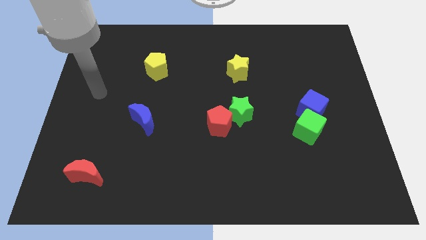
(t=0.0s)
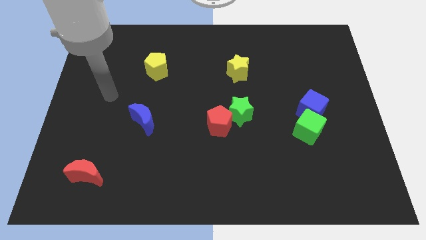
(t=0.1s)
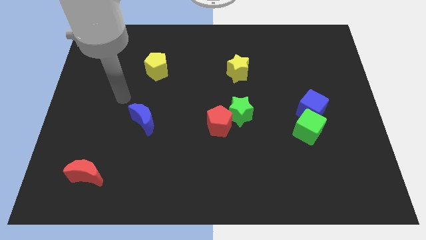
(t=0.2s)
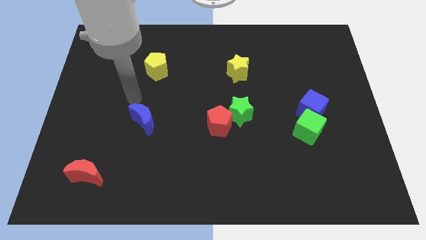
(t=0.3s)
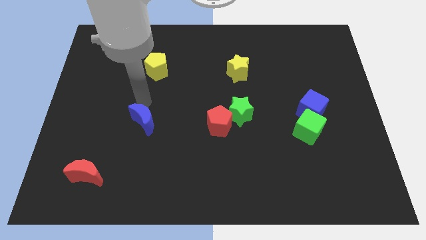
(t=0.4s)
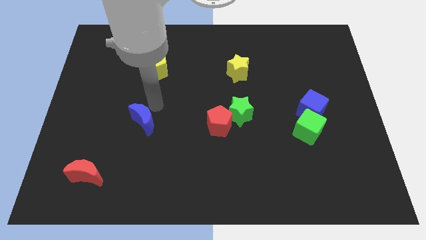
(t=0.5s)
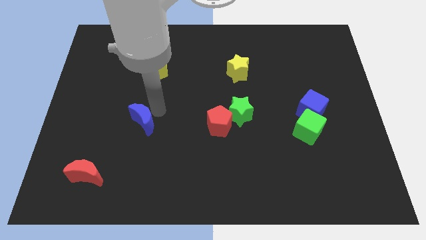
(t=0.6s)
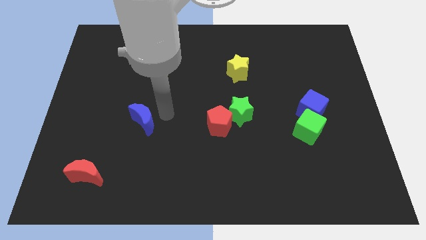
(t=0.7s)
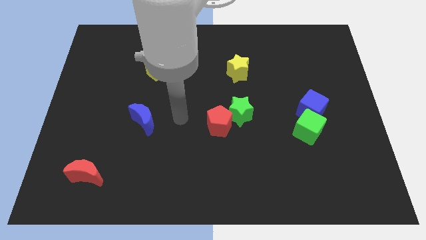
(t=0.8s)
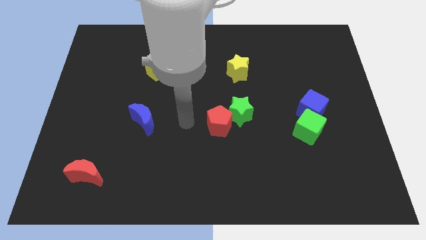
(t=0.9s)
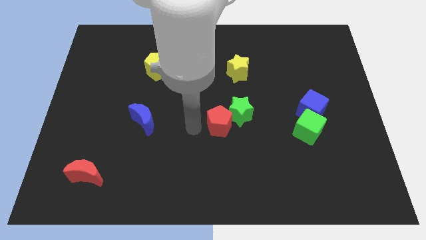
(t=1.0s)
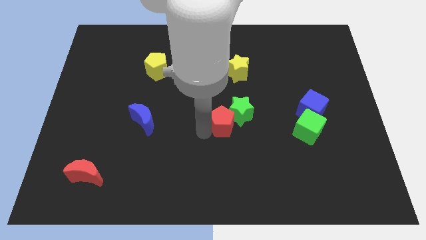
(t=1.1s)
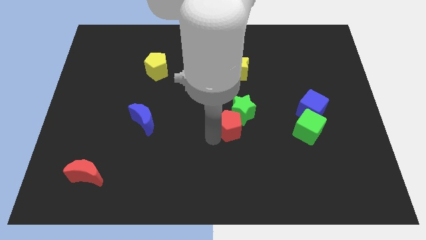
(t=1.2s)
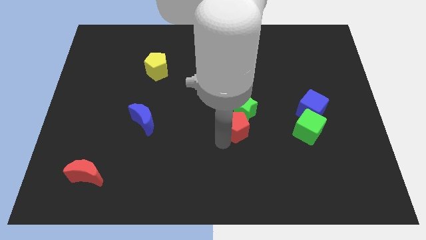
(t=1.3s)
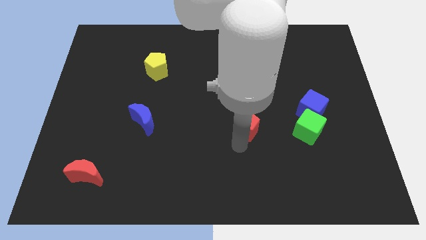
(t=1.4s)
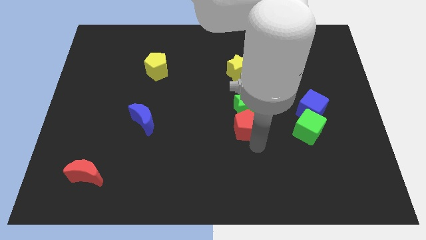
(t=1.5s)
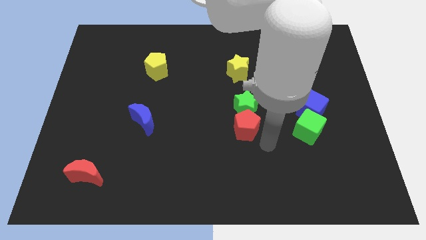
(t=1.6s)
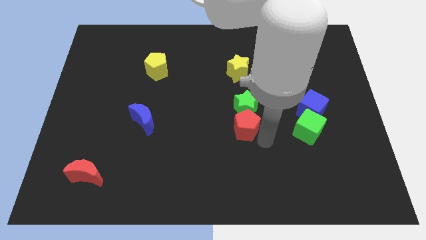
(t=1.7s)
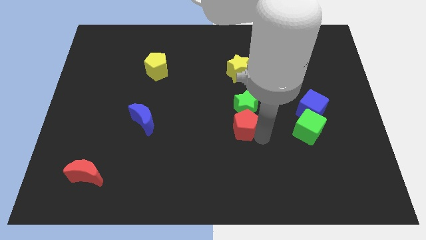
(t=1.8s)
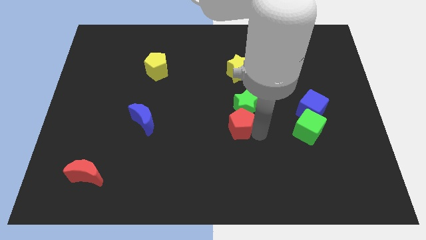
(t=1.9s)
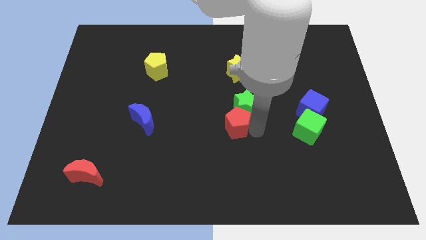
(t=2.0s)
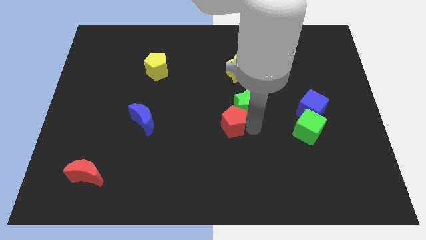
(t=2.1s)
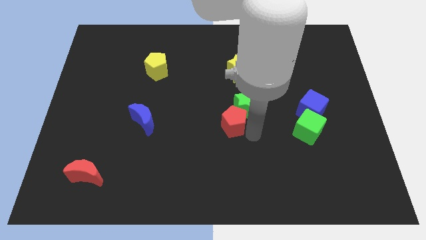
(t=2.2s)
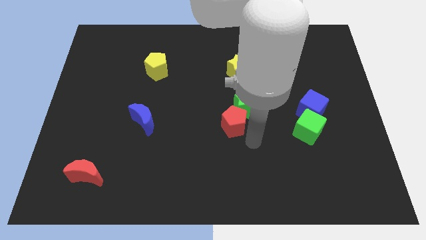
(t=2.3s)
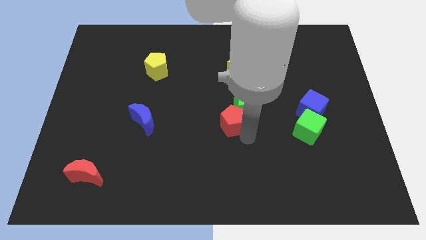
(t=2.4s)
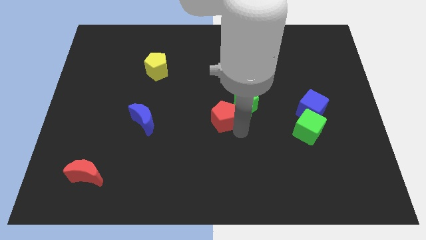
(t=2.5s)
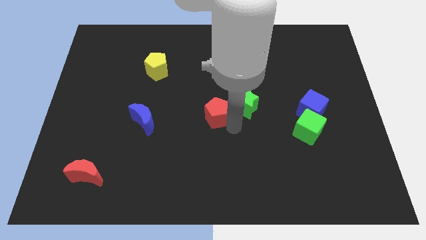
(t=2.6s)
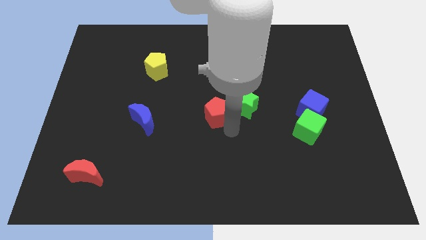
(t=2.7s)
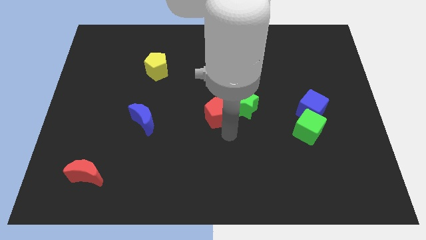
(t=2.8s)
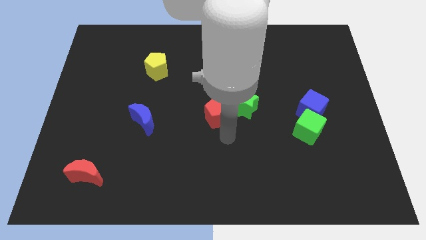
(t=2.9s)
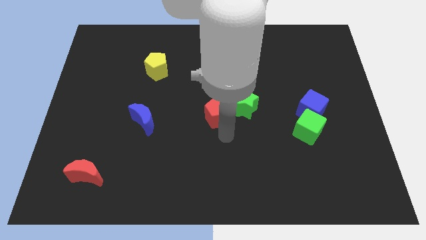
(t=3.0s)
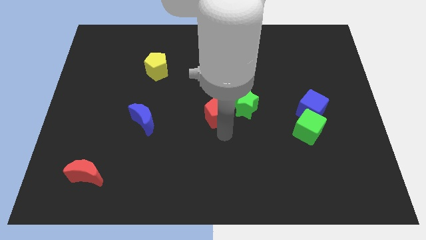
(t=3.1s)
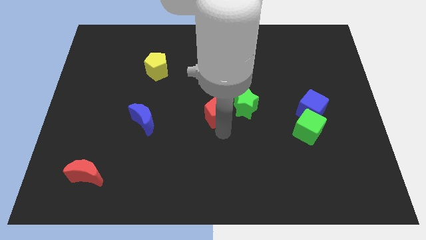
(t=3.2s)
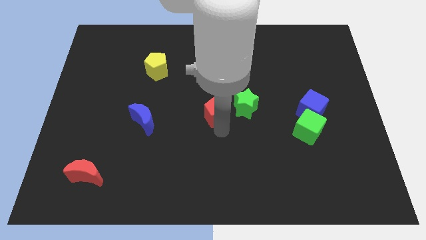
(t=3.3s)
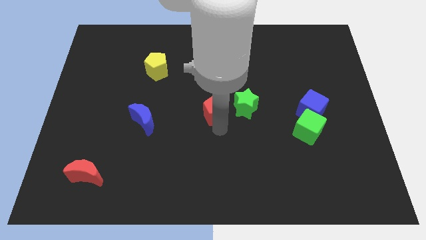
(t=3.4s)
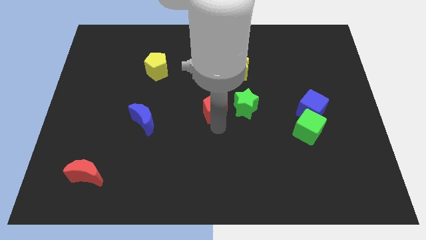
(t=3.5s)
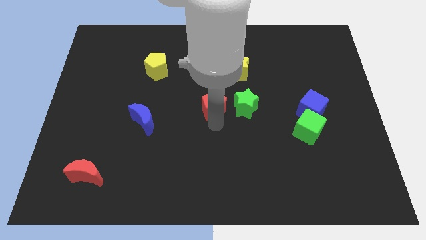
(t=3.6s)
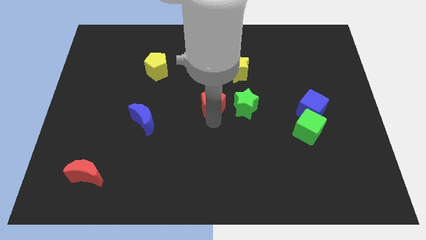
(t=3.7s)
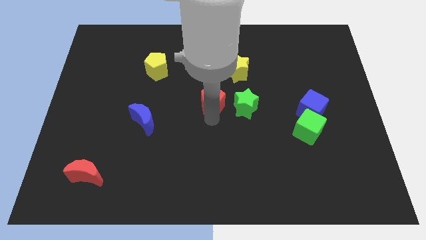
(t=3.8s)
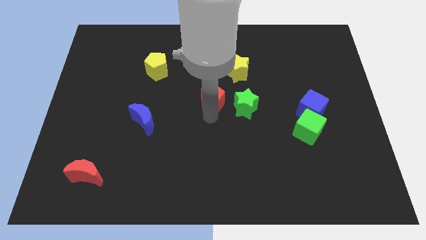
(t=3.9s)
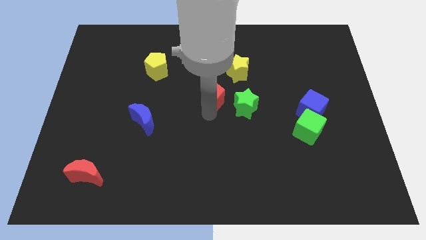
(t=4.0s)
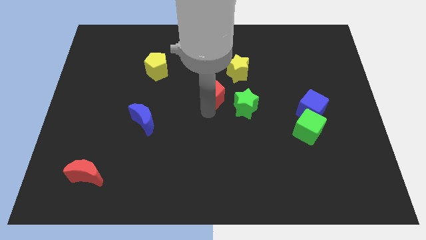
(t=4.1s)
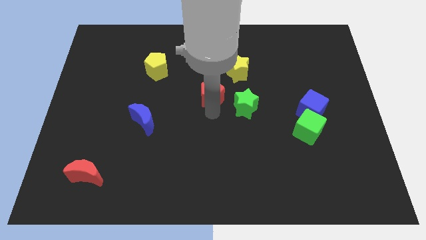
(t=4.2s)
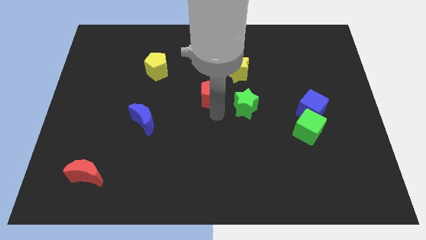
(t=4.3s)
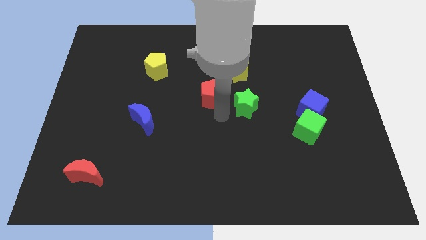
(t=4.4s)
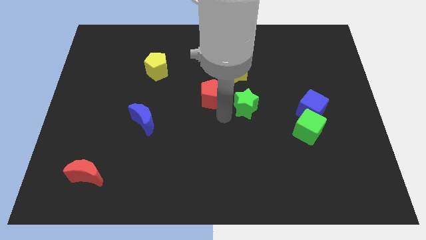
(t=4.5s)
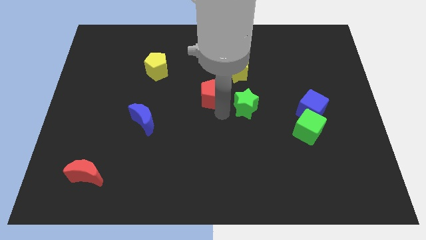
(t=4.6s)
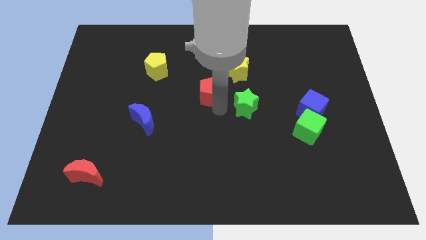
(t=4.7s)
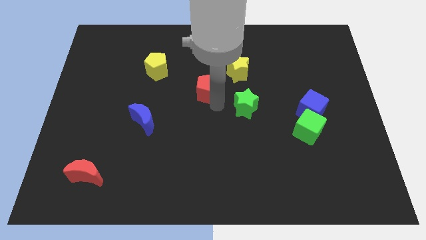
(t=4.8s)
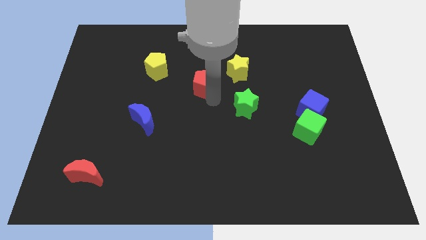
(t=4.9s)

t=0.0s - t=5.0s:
slide the red pentagon to the left of the yellow star

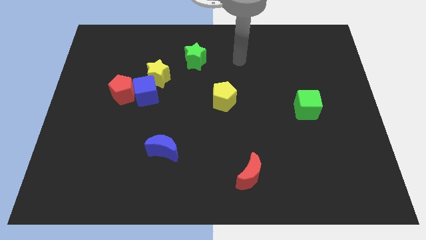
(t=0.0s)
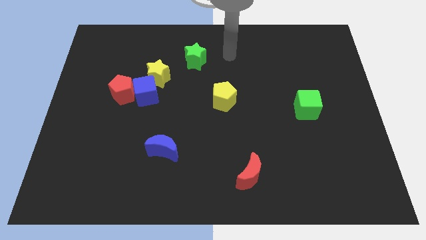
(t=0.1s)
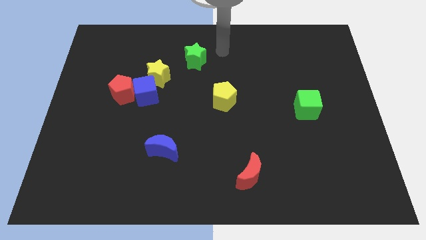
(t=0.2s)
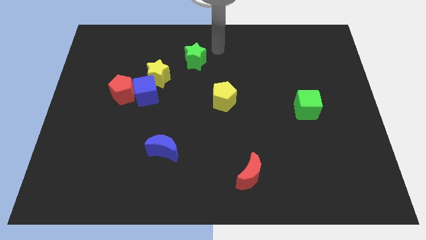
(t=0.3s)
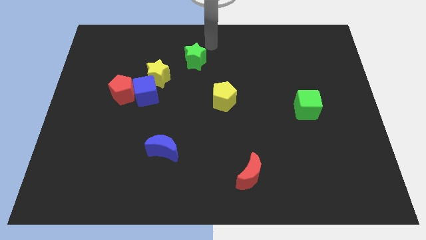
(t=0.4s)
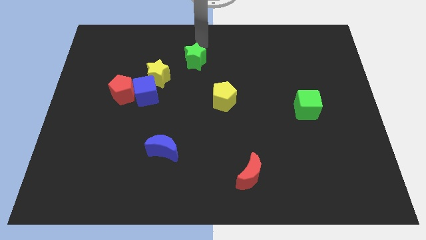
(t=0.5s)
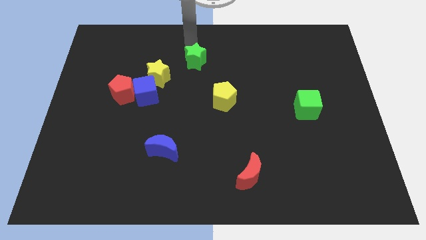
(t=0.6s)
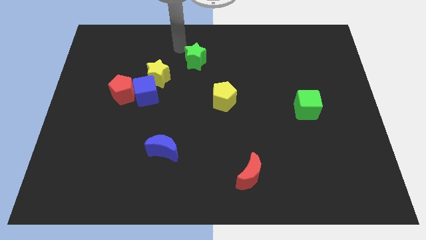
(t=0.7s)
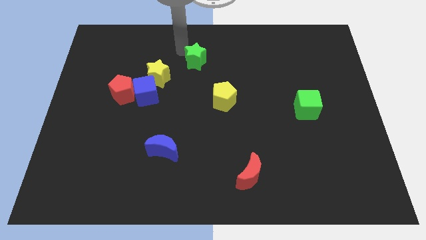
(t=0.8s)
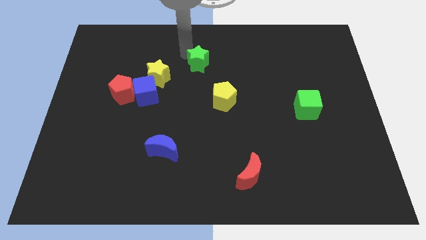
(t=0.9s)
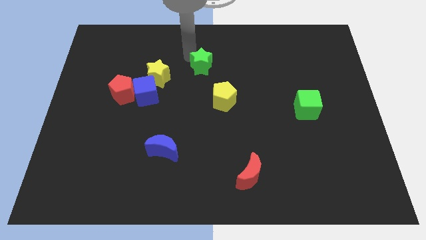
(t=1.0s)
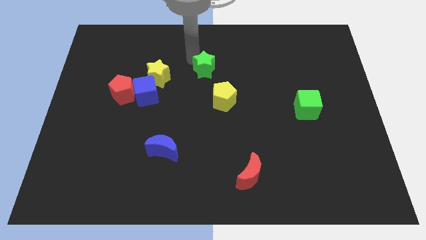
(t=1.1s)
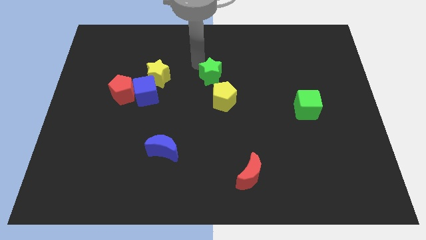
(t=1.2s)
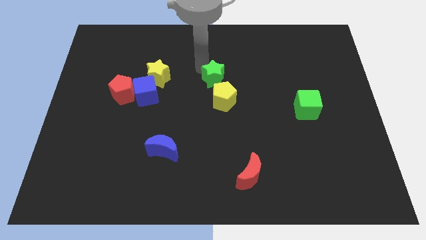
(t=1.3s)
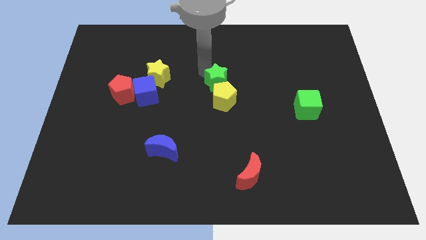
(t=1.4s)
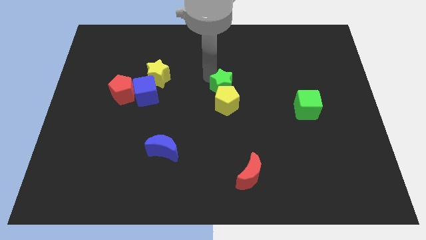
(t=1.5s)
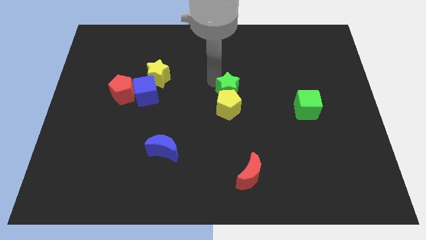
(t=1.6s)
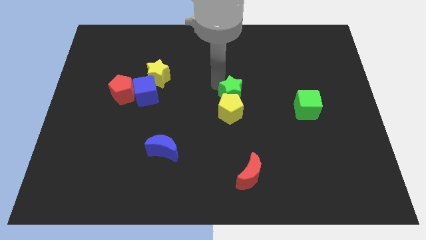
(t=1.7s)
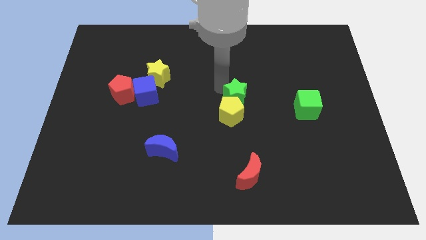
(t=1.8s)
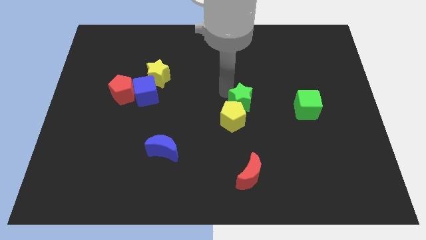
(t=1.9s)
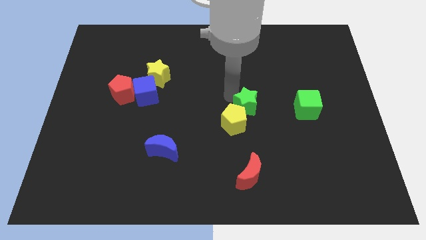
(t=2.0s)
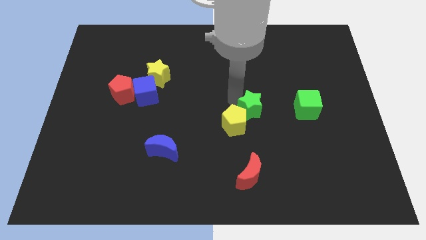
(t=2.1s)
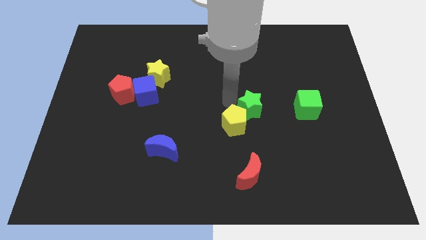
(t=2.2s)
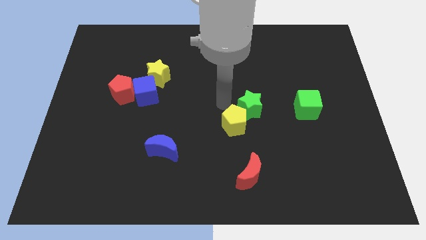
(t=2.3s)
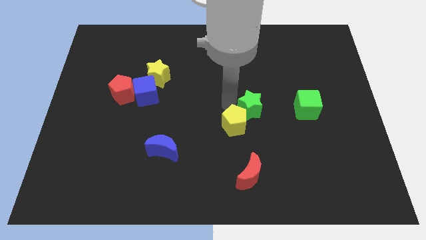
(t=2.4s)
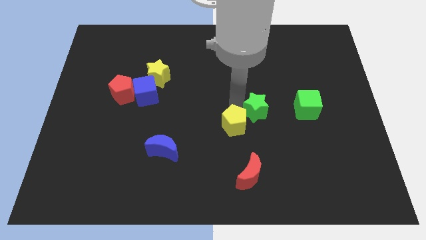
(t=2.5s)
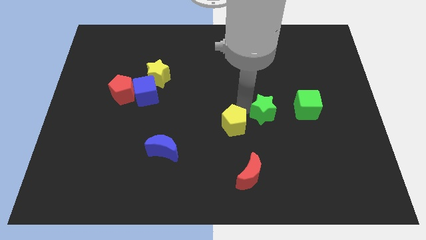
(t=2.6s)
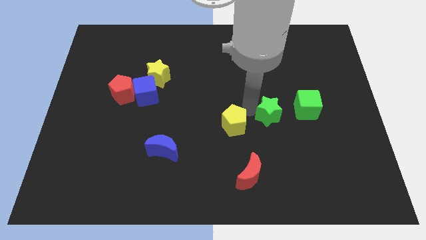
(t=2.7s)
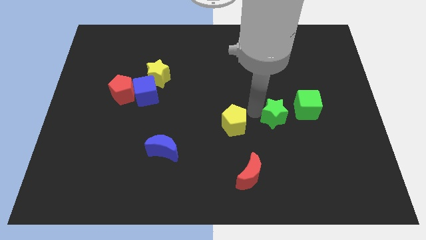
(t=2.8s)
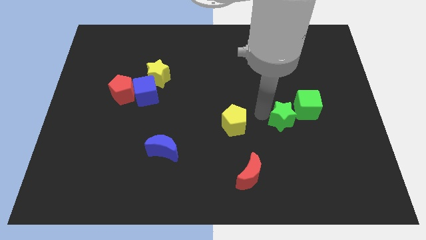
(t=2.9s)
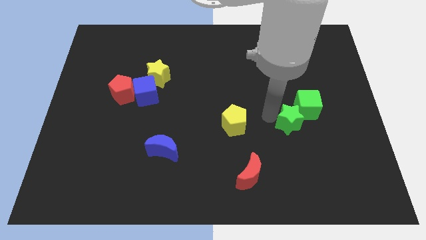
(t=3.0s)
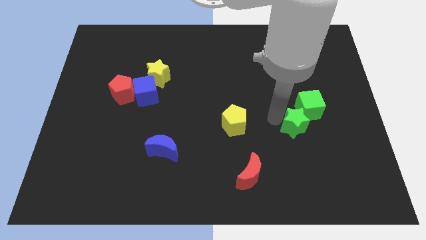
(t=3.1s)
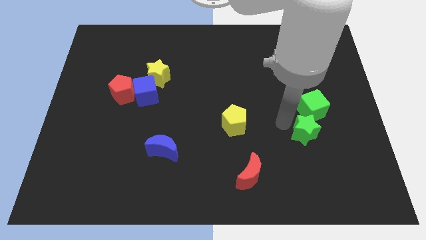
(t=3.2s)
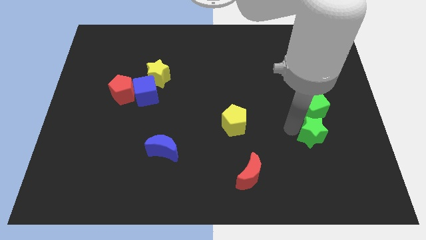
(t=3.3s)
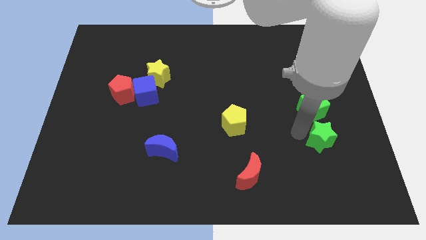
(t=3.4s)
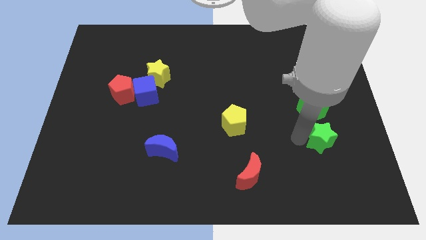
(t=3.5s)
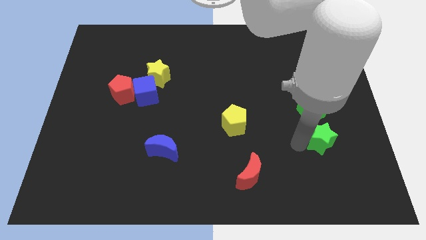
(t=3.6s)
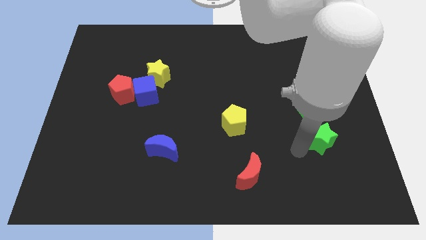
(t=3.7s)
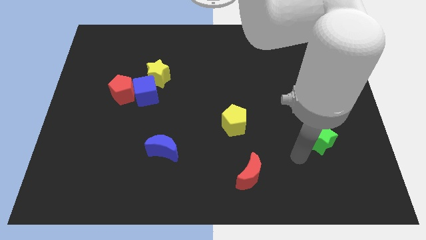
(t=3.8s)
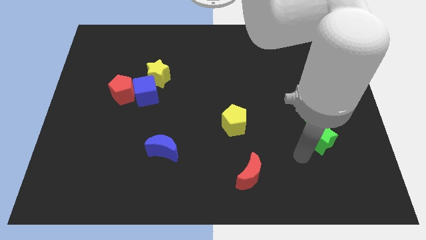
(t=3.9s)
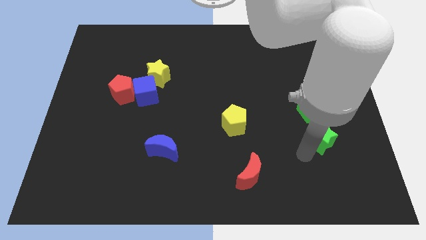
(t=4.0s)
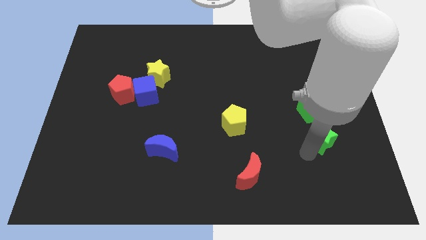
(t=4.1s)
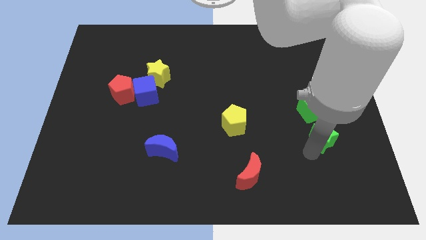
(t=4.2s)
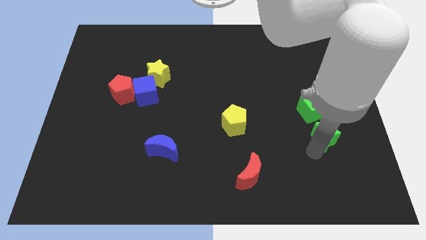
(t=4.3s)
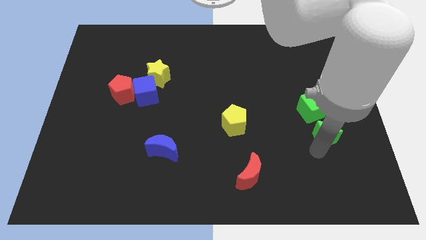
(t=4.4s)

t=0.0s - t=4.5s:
move the green star to the bottom right side of the green cube
